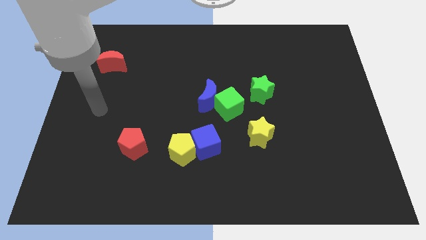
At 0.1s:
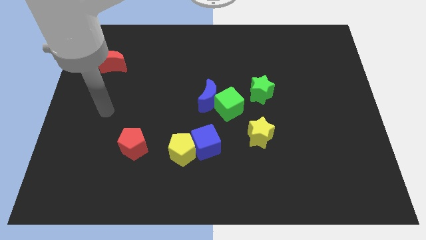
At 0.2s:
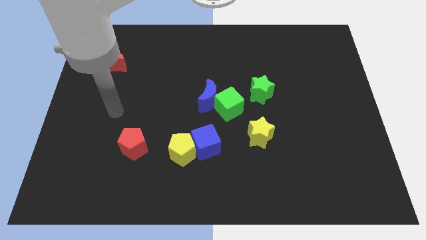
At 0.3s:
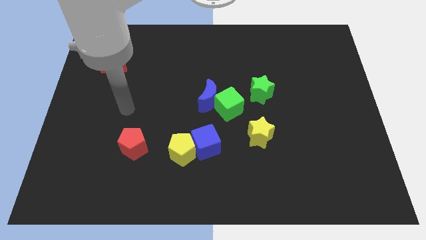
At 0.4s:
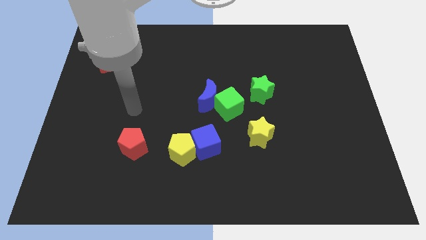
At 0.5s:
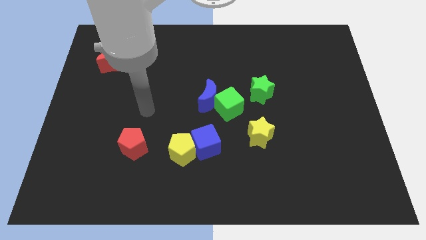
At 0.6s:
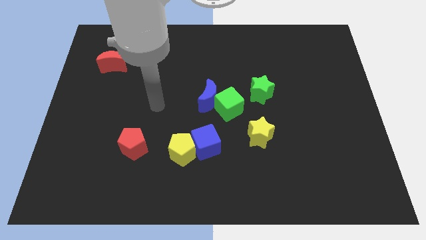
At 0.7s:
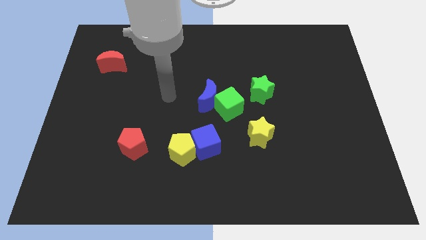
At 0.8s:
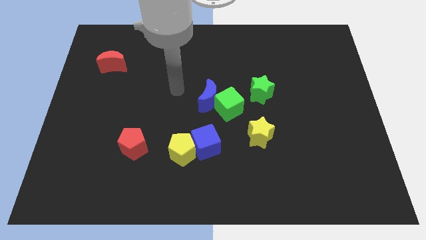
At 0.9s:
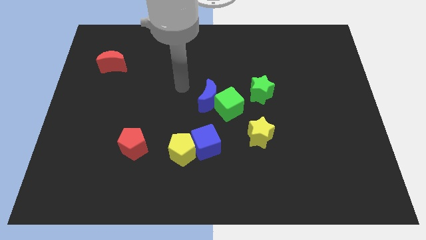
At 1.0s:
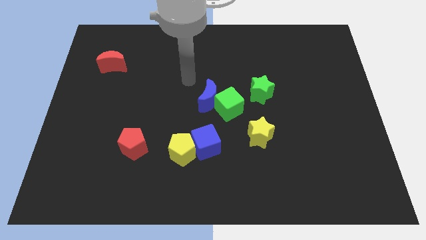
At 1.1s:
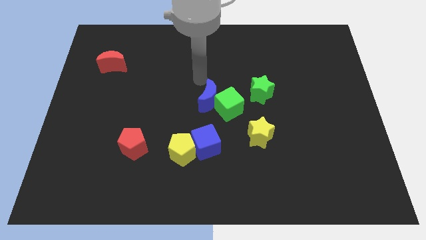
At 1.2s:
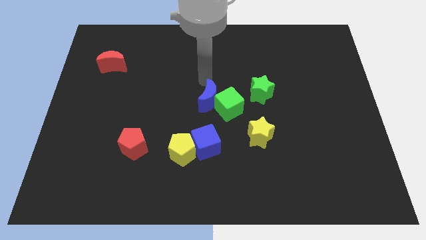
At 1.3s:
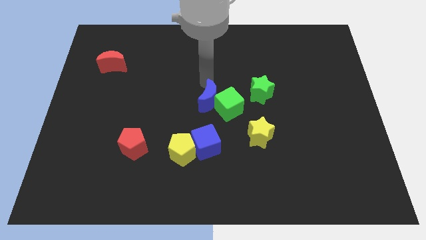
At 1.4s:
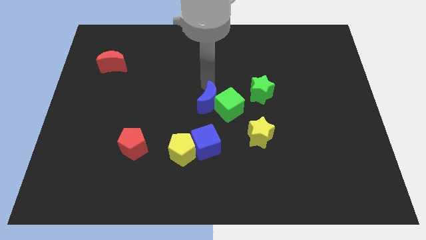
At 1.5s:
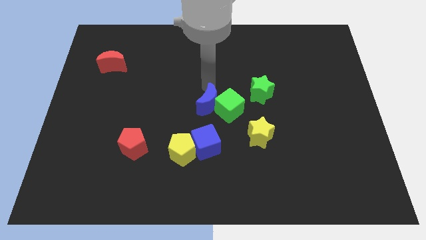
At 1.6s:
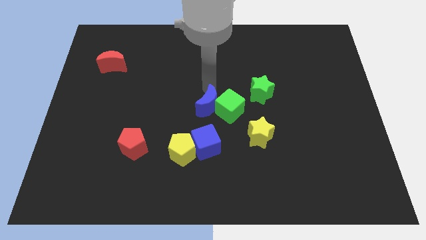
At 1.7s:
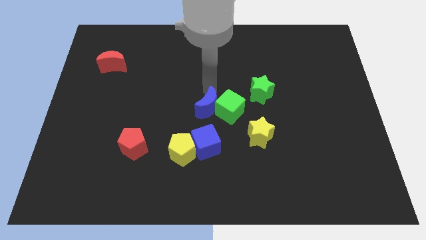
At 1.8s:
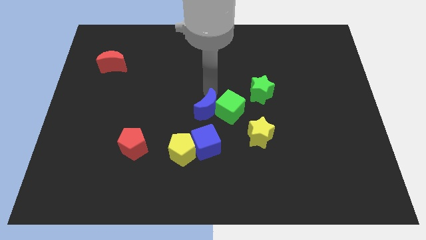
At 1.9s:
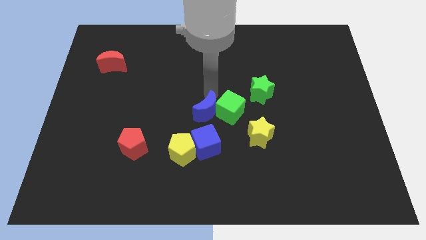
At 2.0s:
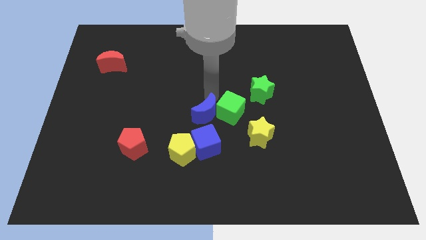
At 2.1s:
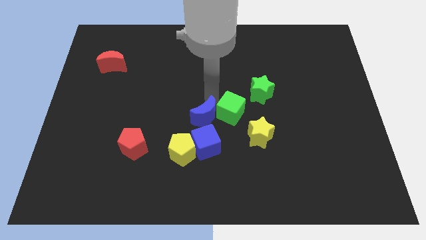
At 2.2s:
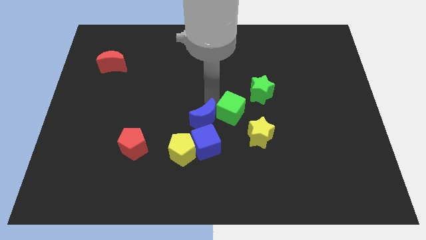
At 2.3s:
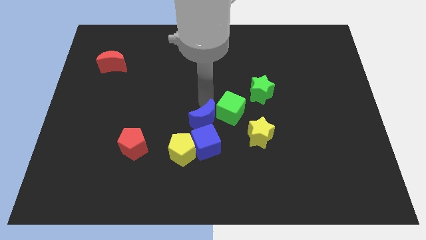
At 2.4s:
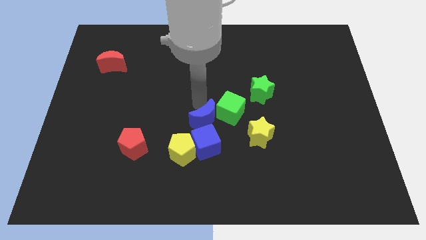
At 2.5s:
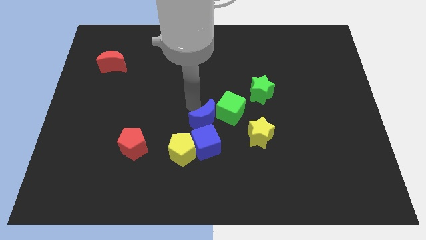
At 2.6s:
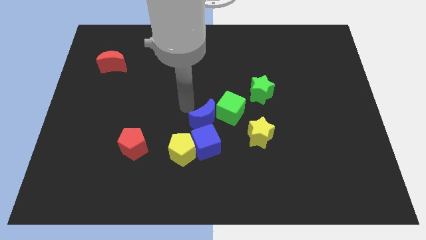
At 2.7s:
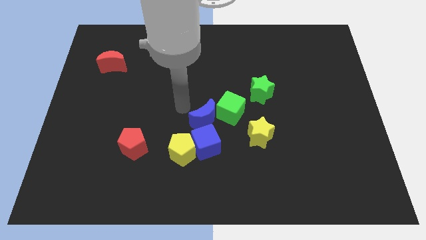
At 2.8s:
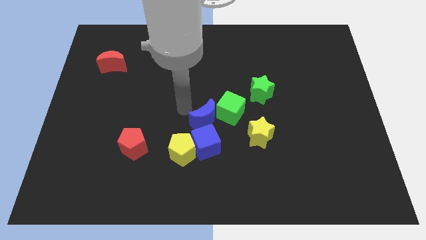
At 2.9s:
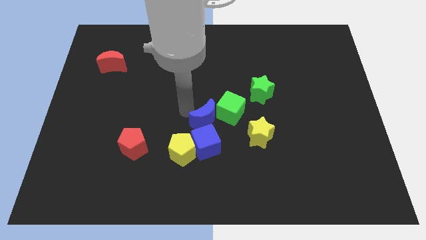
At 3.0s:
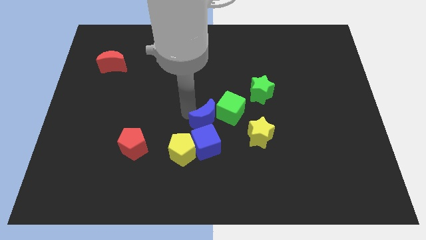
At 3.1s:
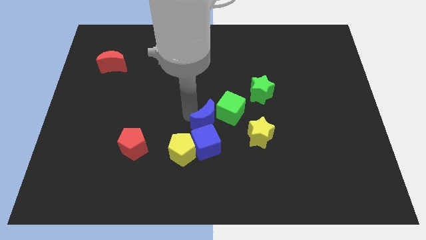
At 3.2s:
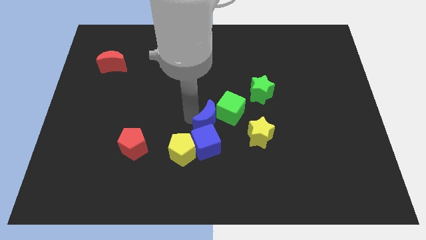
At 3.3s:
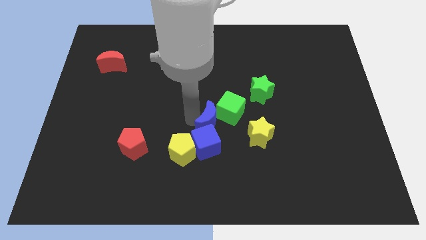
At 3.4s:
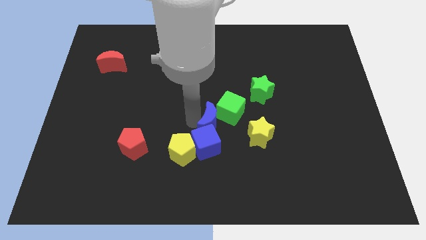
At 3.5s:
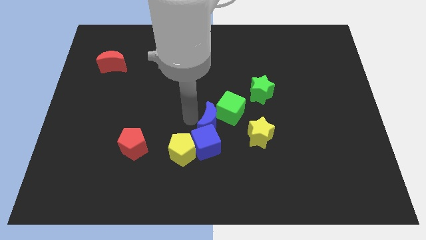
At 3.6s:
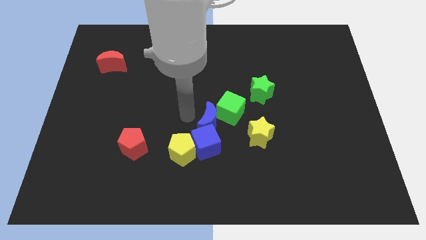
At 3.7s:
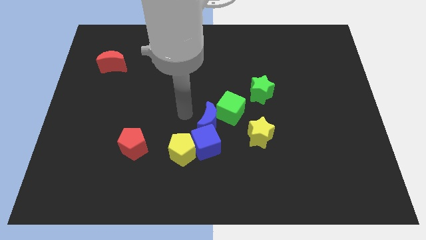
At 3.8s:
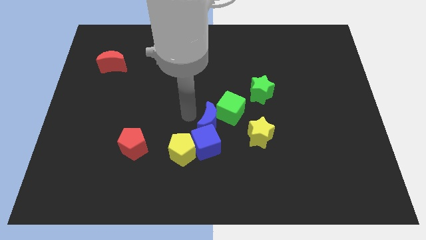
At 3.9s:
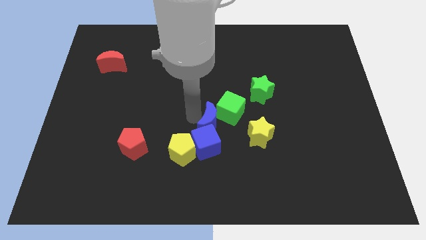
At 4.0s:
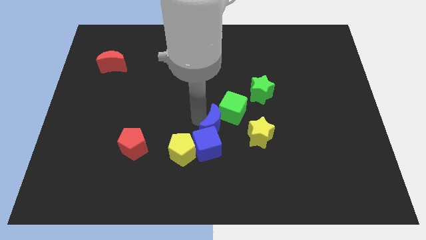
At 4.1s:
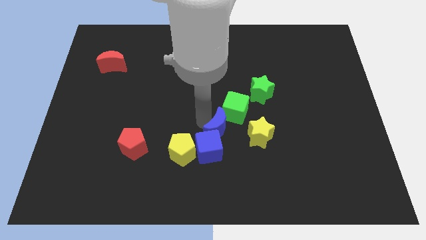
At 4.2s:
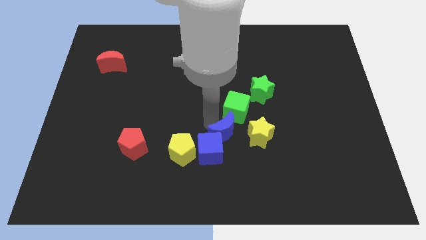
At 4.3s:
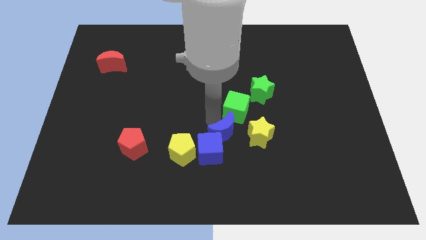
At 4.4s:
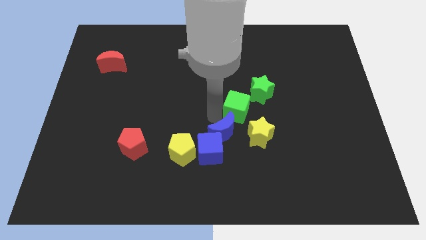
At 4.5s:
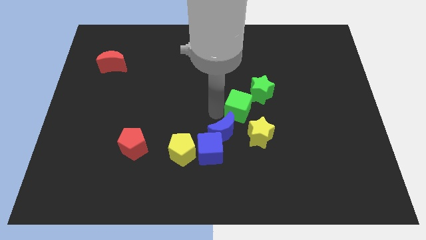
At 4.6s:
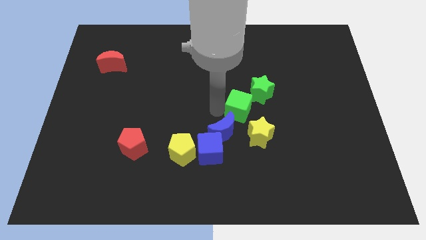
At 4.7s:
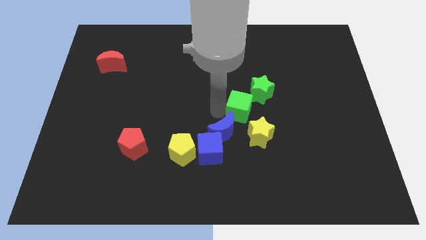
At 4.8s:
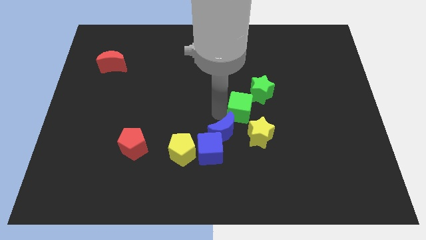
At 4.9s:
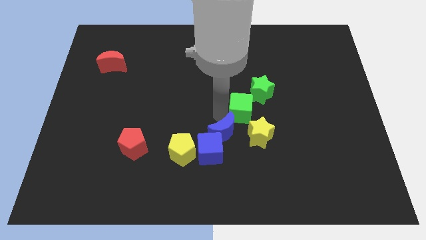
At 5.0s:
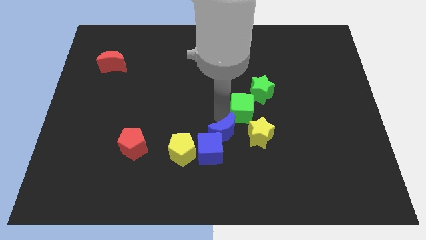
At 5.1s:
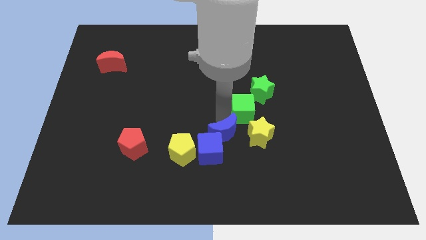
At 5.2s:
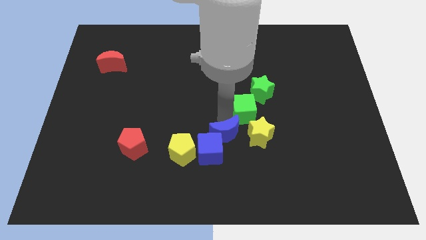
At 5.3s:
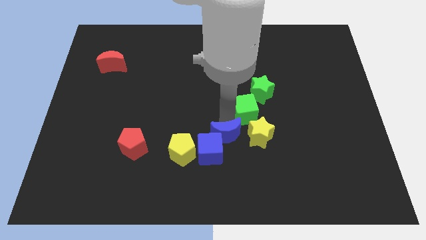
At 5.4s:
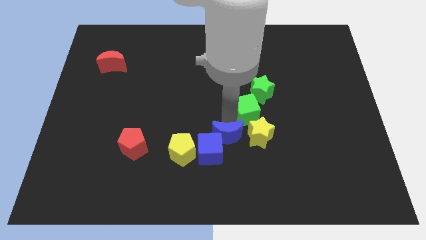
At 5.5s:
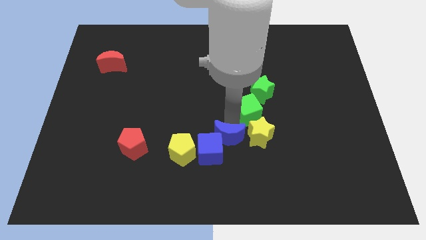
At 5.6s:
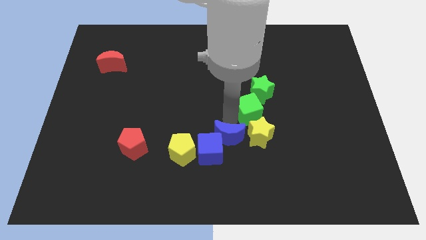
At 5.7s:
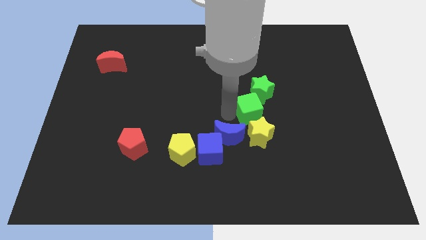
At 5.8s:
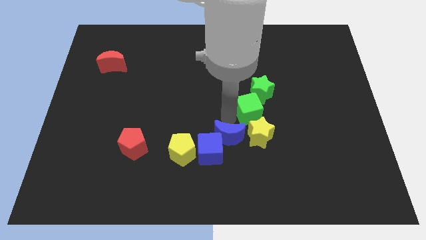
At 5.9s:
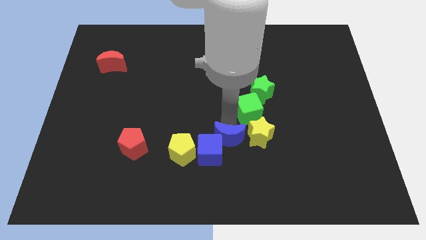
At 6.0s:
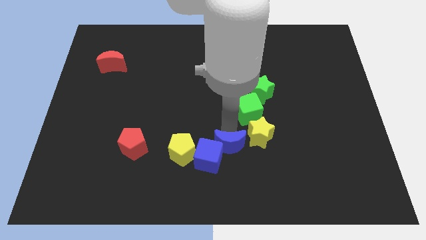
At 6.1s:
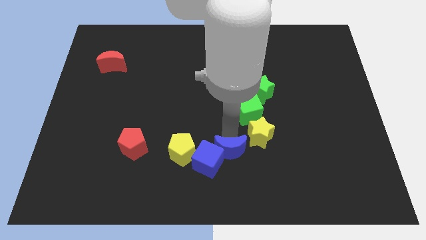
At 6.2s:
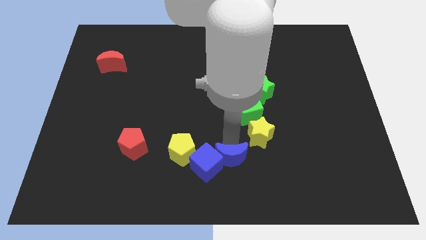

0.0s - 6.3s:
move the blue moon to the bottom
